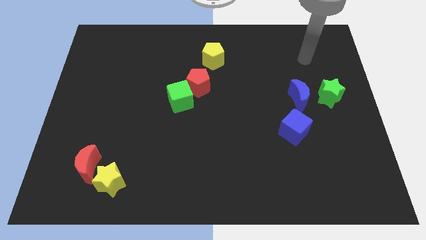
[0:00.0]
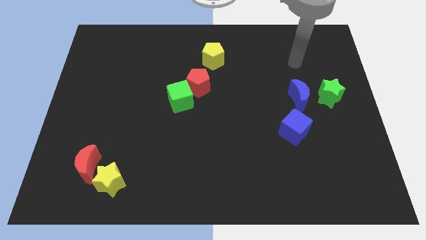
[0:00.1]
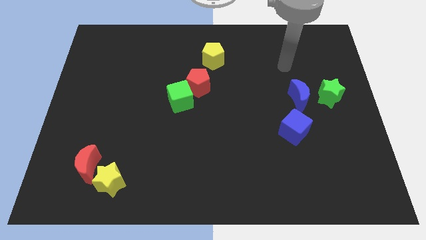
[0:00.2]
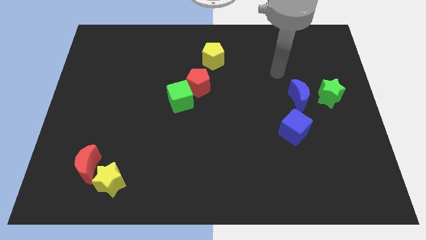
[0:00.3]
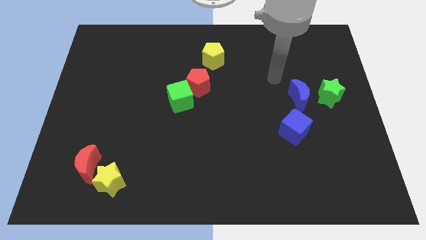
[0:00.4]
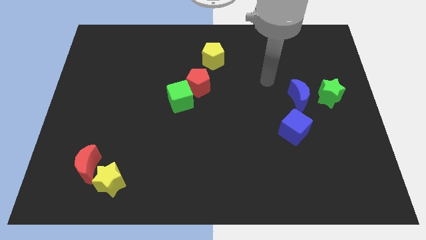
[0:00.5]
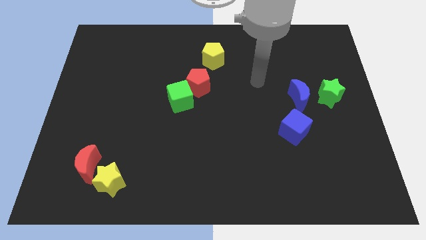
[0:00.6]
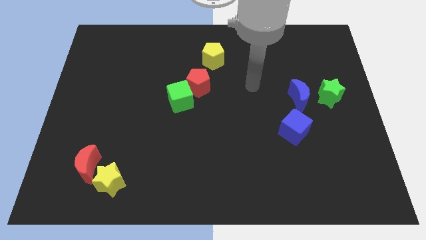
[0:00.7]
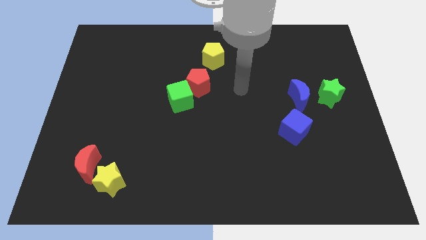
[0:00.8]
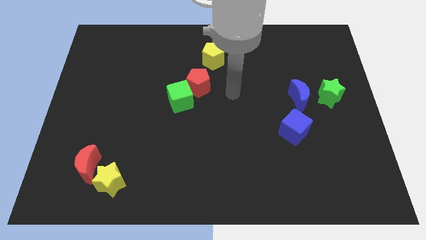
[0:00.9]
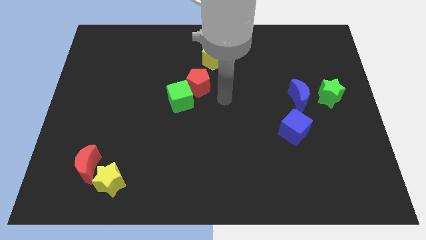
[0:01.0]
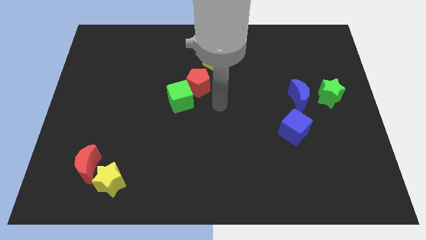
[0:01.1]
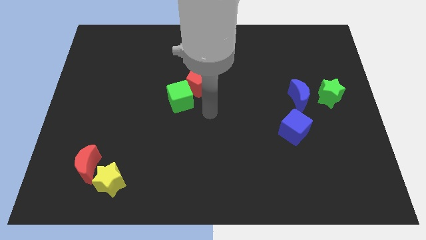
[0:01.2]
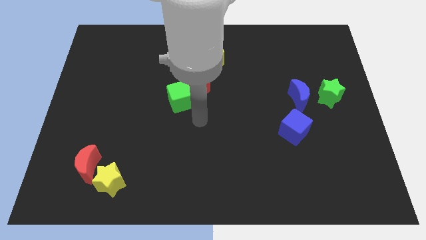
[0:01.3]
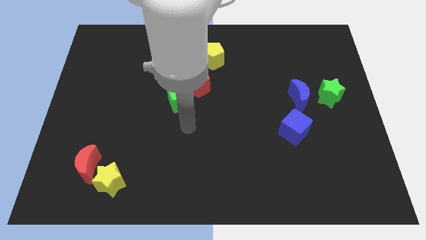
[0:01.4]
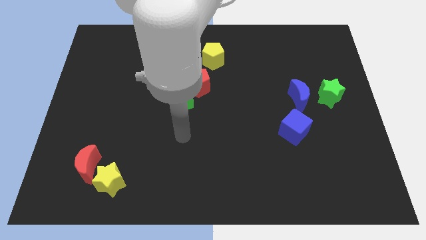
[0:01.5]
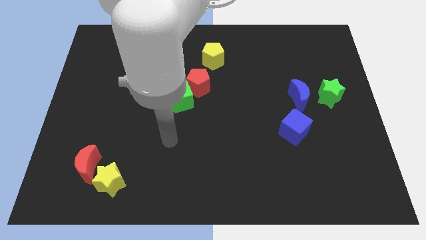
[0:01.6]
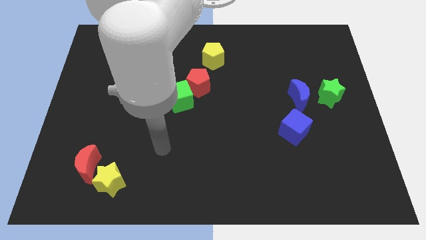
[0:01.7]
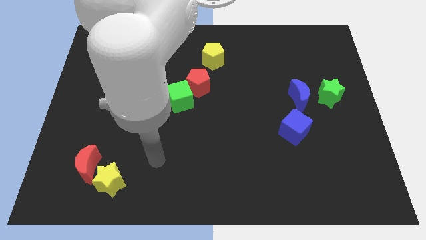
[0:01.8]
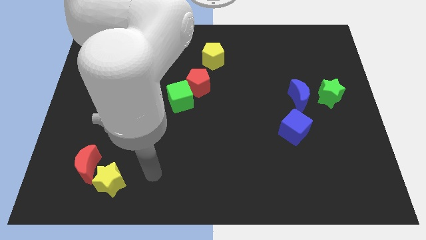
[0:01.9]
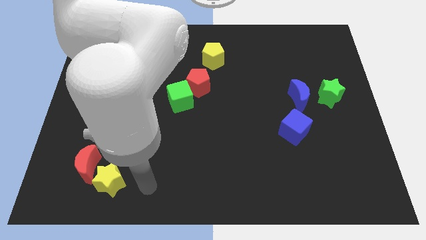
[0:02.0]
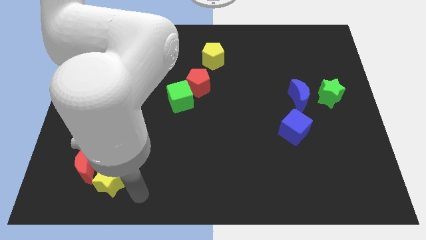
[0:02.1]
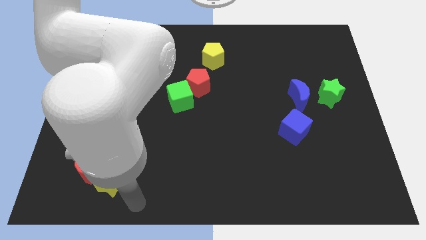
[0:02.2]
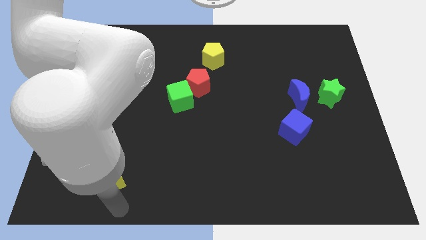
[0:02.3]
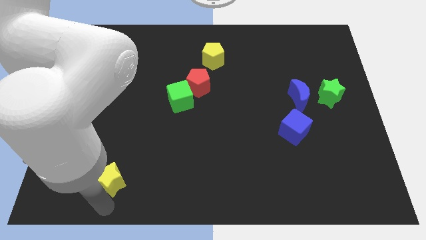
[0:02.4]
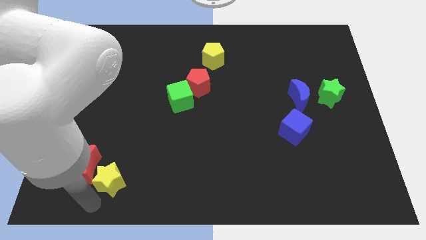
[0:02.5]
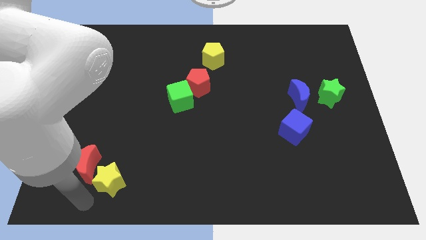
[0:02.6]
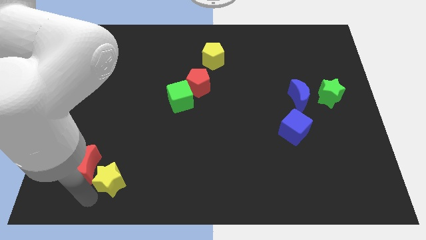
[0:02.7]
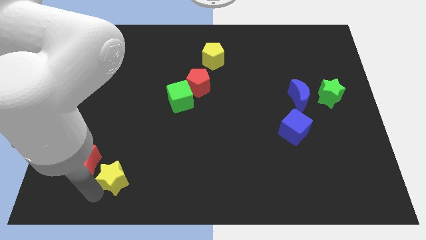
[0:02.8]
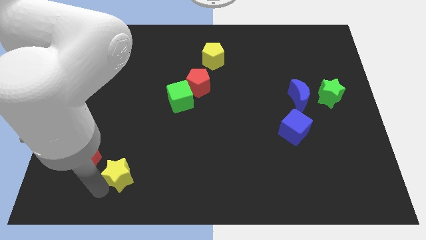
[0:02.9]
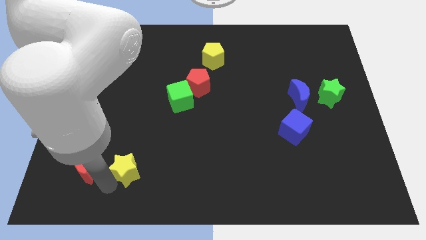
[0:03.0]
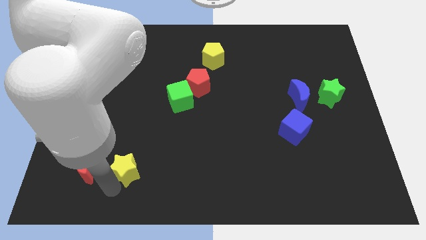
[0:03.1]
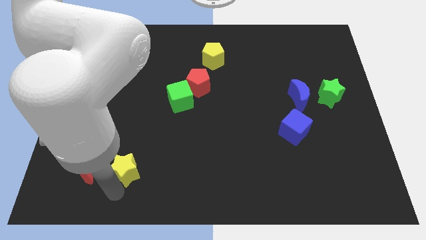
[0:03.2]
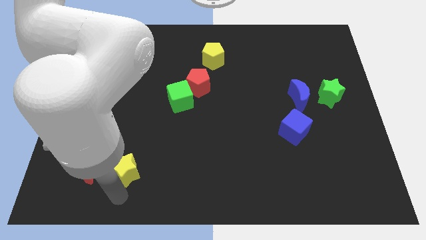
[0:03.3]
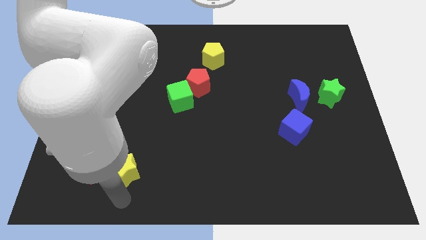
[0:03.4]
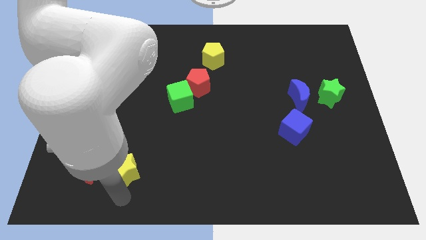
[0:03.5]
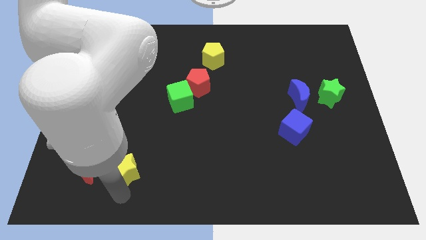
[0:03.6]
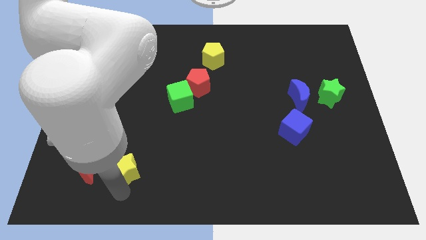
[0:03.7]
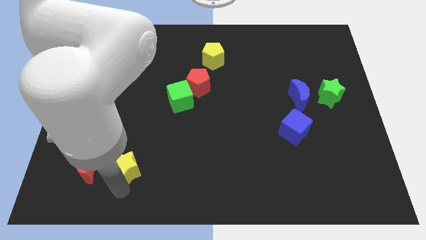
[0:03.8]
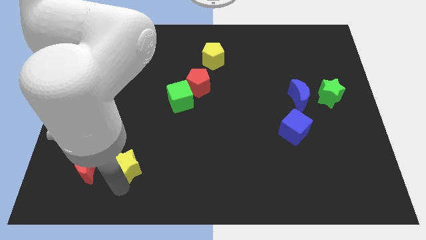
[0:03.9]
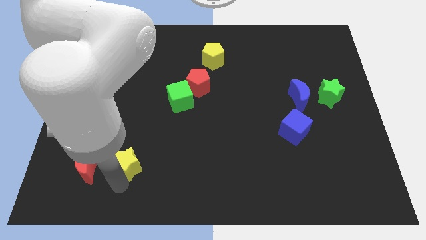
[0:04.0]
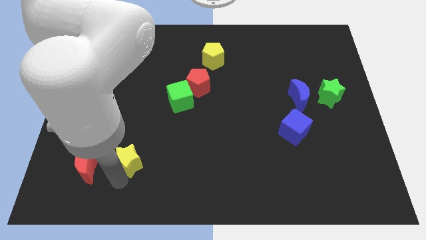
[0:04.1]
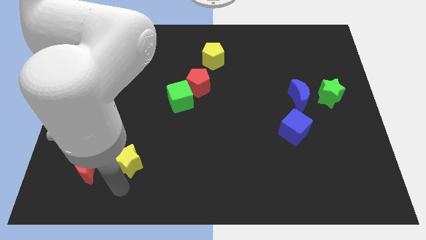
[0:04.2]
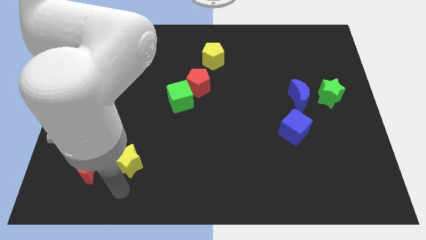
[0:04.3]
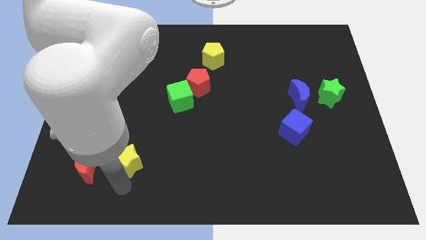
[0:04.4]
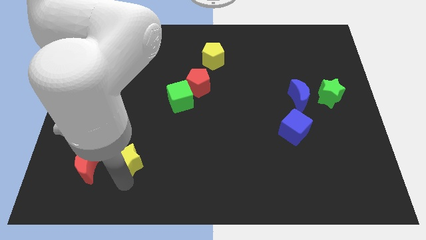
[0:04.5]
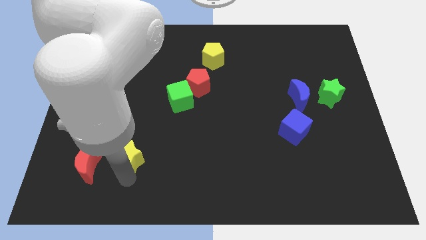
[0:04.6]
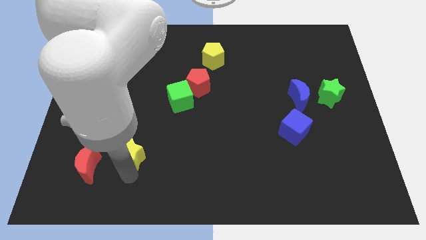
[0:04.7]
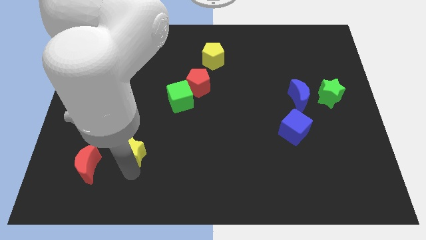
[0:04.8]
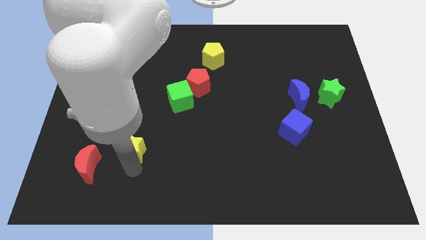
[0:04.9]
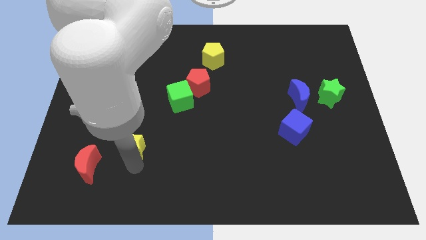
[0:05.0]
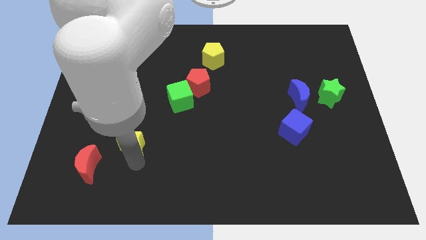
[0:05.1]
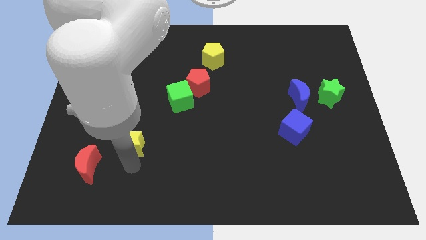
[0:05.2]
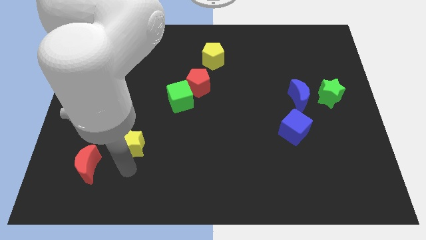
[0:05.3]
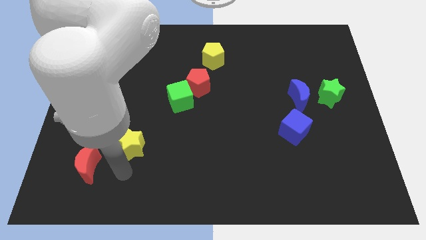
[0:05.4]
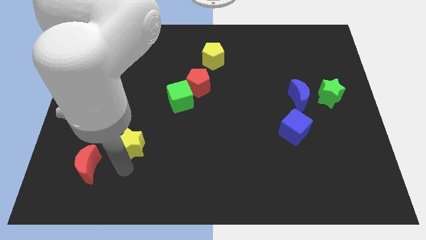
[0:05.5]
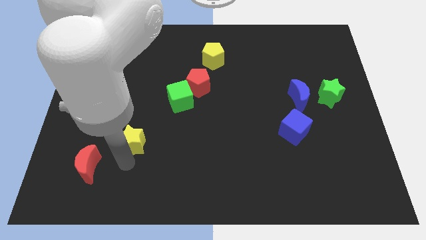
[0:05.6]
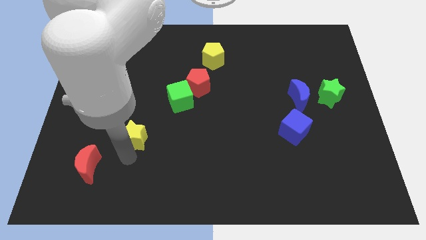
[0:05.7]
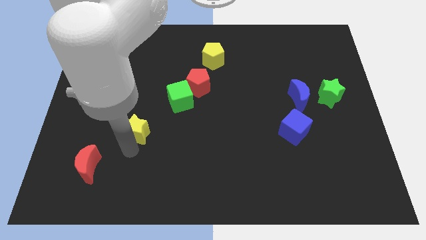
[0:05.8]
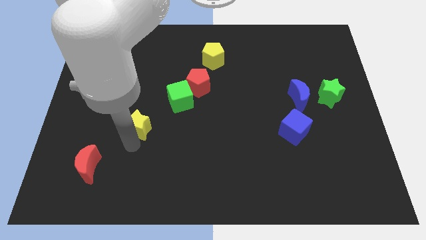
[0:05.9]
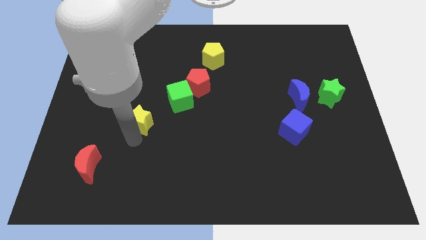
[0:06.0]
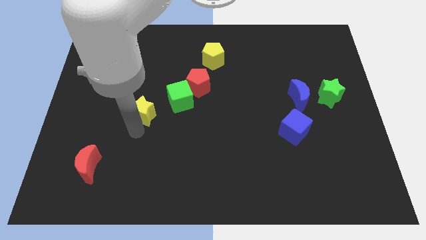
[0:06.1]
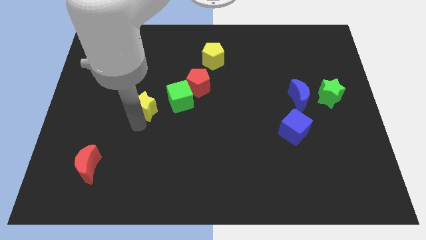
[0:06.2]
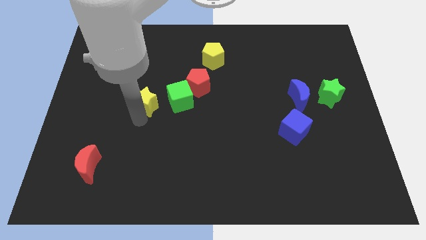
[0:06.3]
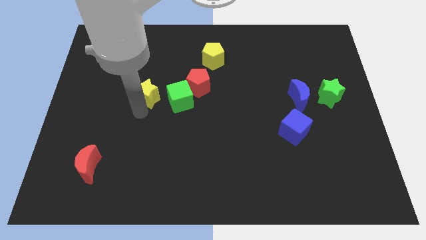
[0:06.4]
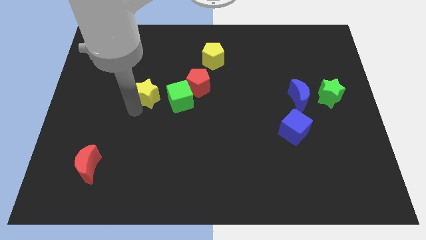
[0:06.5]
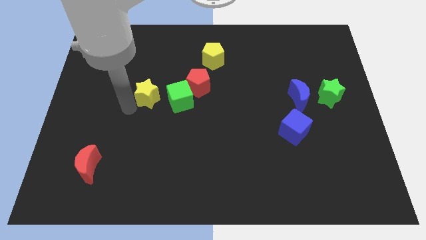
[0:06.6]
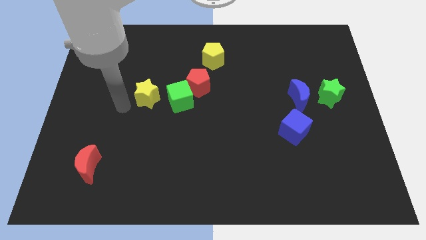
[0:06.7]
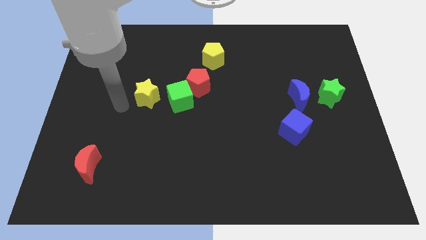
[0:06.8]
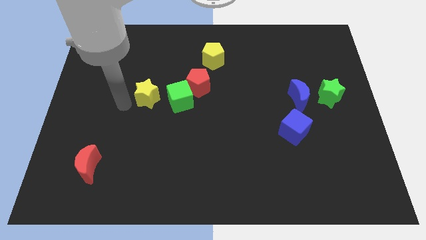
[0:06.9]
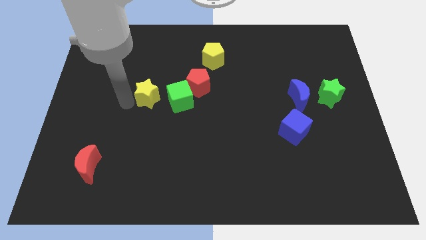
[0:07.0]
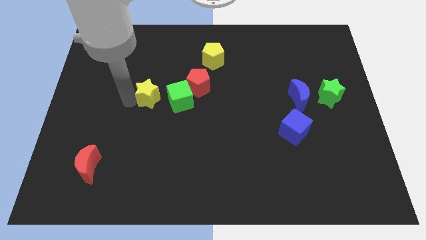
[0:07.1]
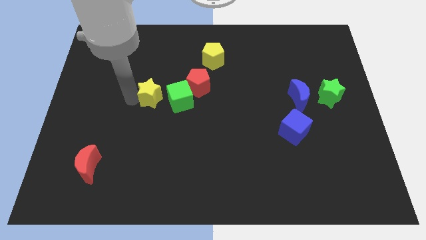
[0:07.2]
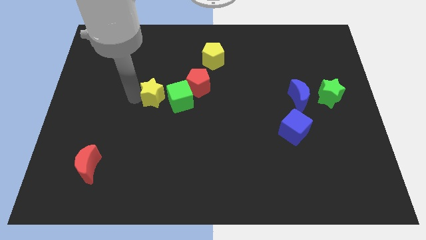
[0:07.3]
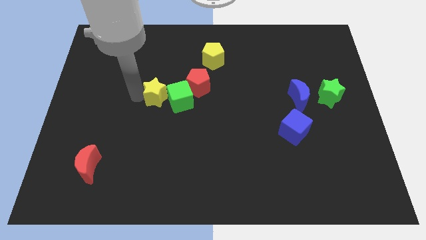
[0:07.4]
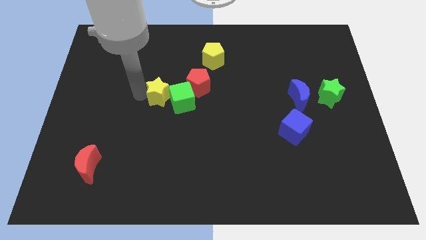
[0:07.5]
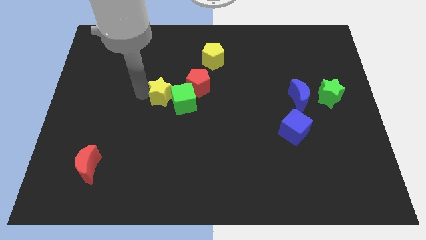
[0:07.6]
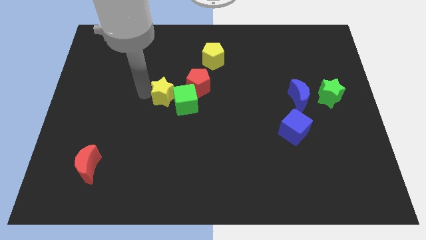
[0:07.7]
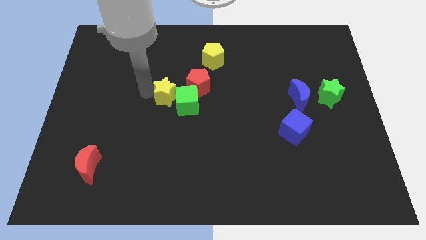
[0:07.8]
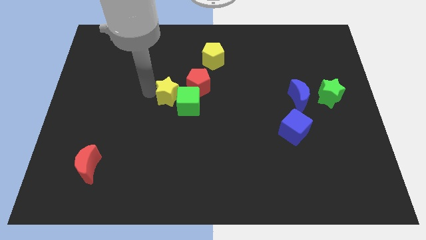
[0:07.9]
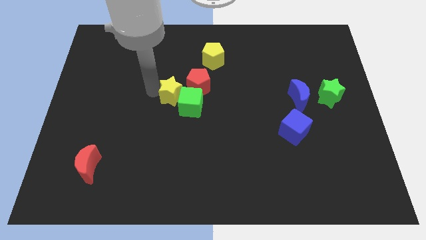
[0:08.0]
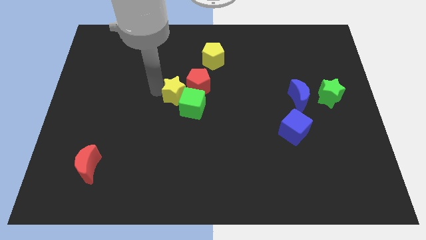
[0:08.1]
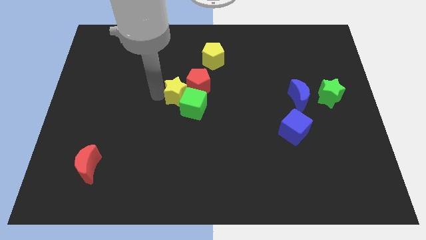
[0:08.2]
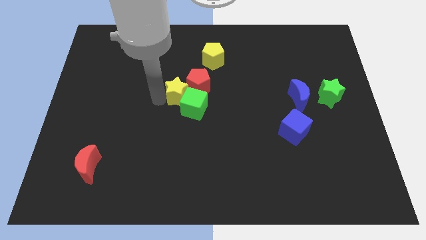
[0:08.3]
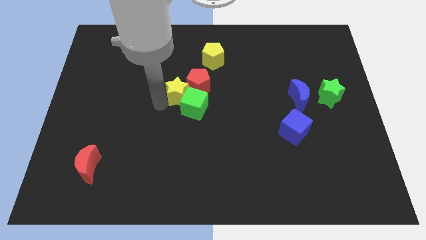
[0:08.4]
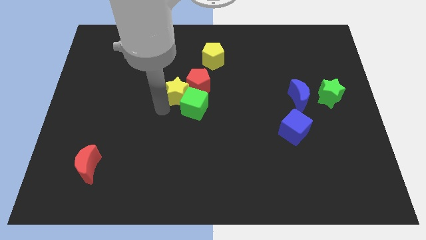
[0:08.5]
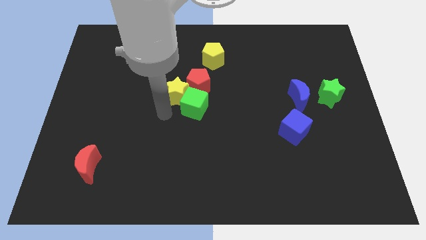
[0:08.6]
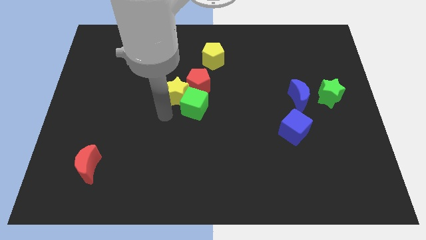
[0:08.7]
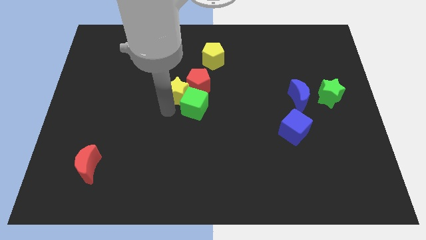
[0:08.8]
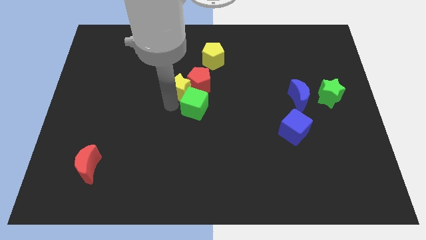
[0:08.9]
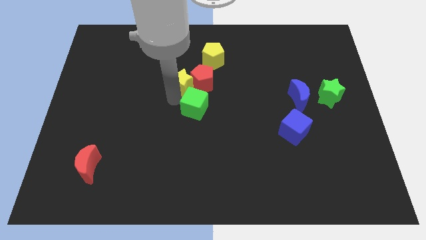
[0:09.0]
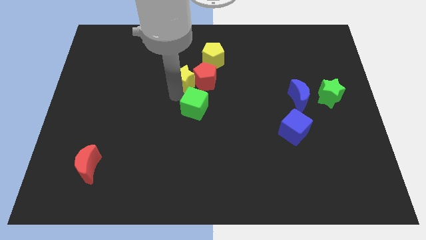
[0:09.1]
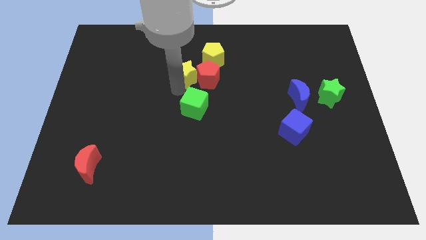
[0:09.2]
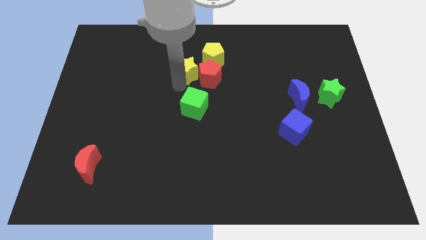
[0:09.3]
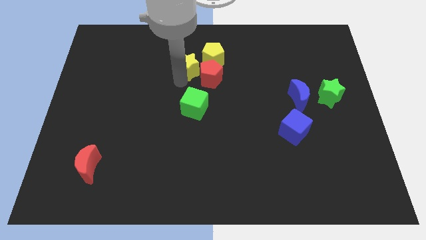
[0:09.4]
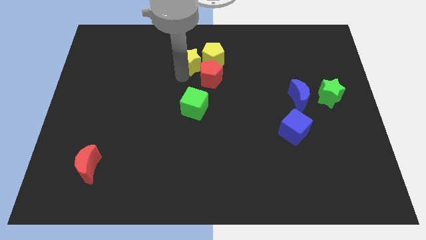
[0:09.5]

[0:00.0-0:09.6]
move the yellow star next to the yellow pentagon
